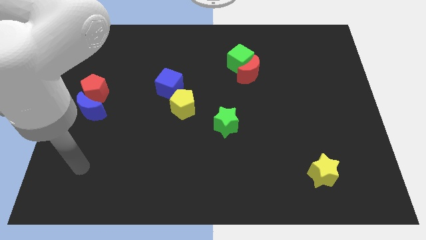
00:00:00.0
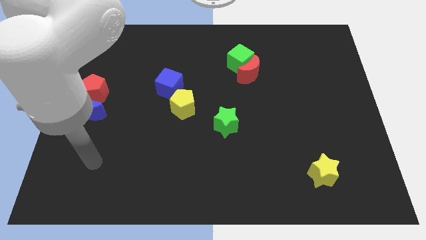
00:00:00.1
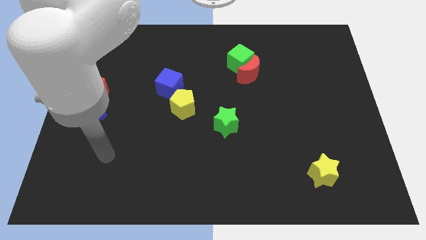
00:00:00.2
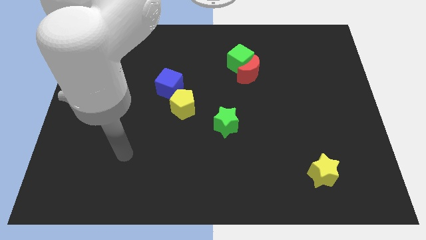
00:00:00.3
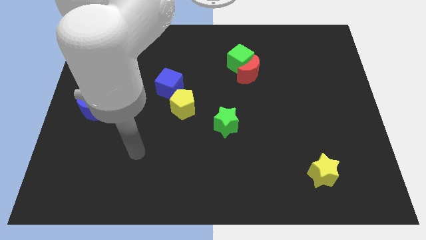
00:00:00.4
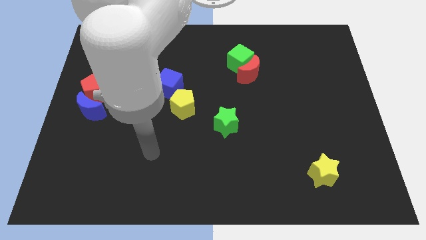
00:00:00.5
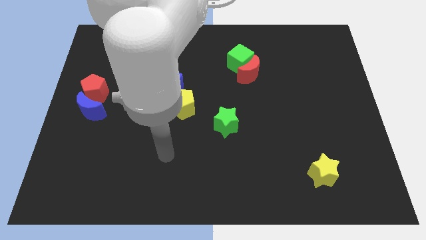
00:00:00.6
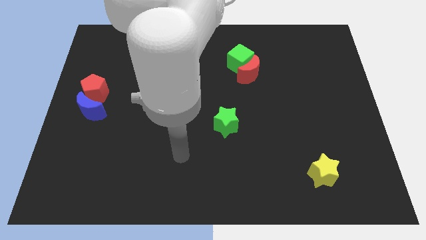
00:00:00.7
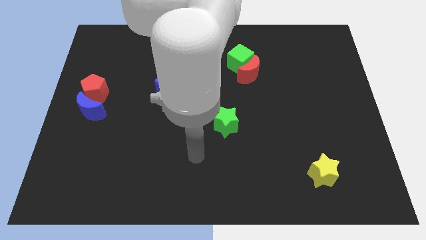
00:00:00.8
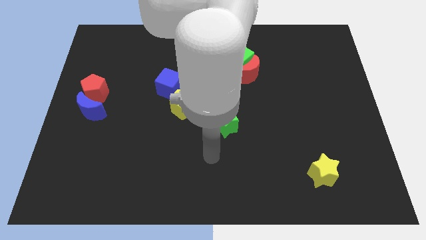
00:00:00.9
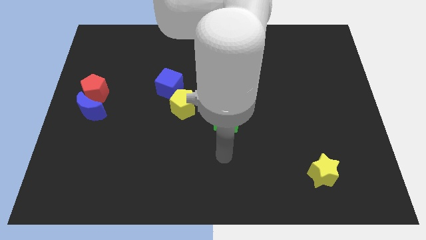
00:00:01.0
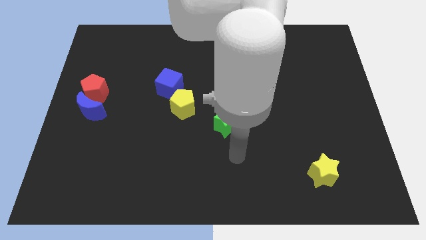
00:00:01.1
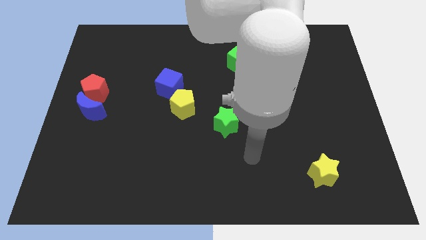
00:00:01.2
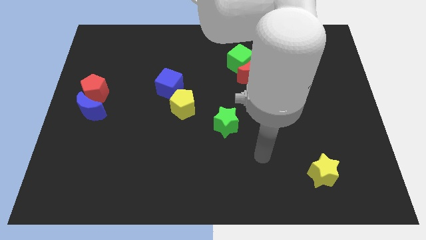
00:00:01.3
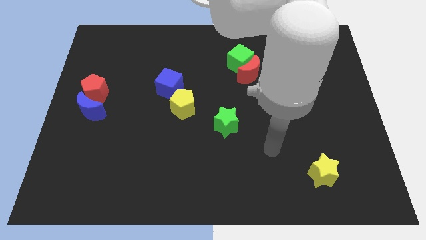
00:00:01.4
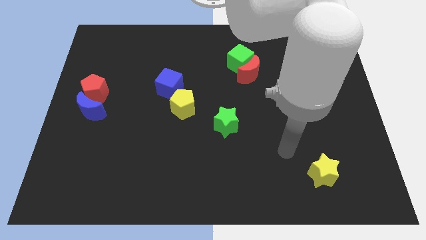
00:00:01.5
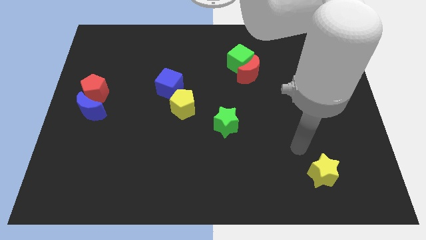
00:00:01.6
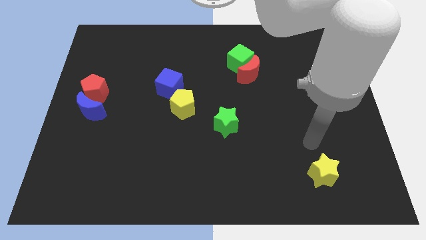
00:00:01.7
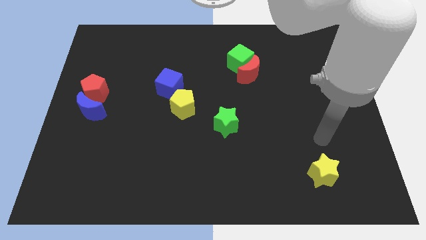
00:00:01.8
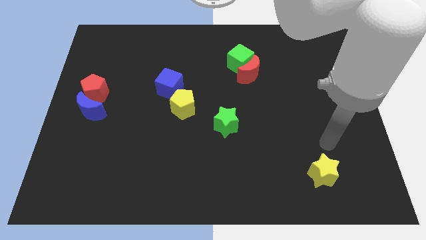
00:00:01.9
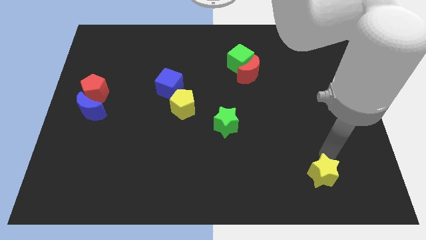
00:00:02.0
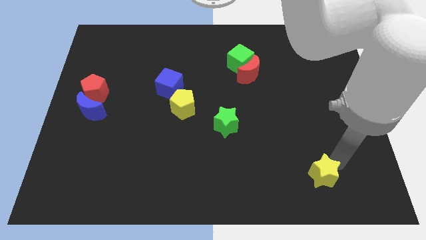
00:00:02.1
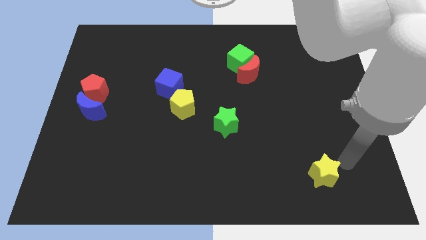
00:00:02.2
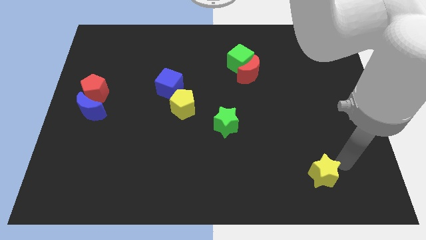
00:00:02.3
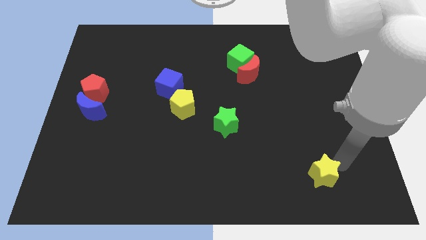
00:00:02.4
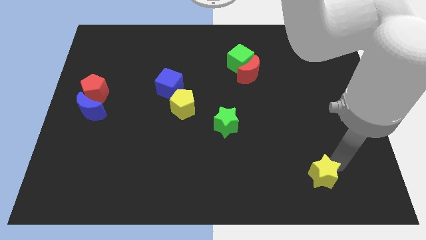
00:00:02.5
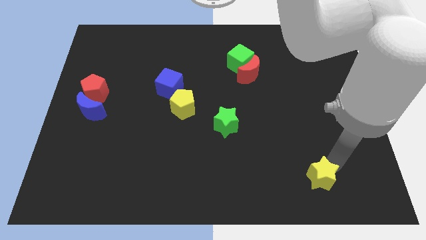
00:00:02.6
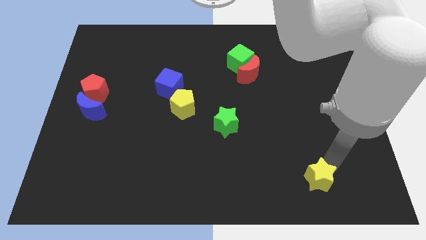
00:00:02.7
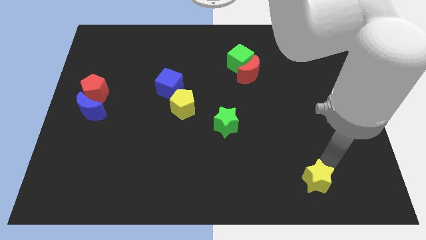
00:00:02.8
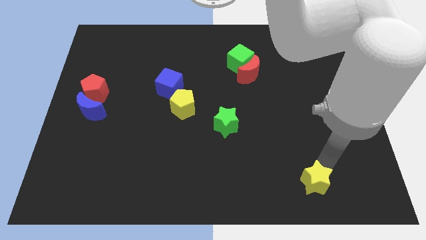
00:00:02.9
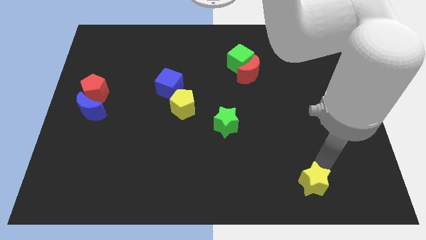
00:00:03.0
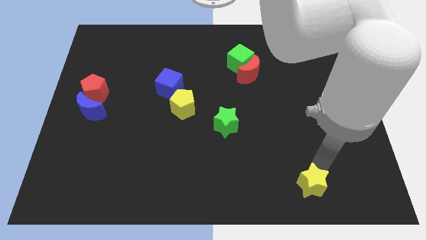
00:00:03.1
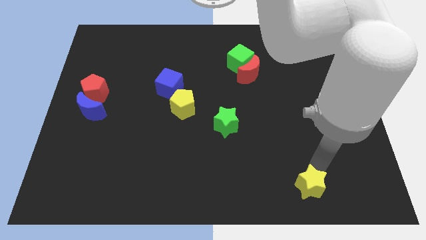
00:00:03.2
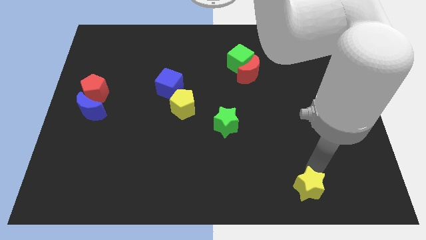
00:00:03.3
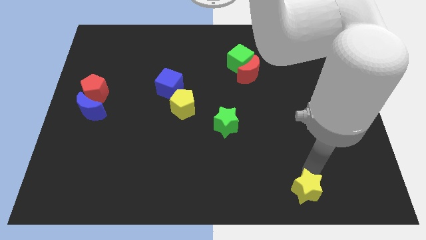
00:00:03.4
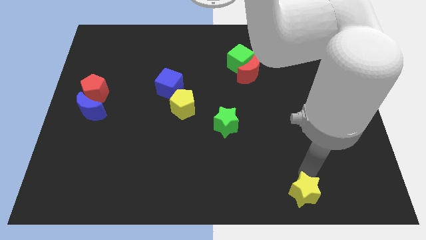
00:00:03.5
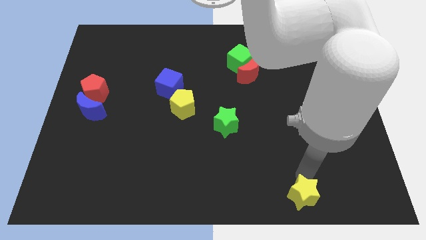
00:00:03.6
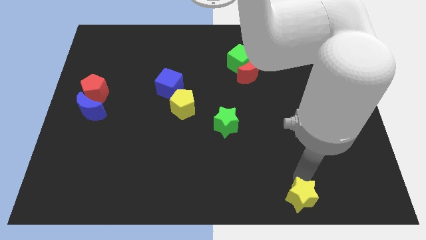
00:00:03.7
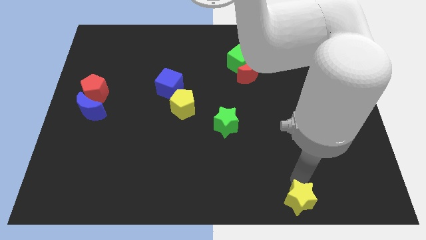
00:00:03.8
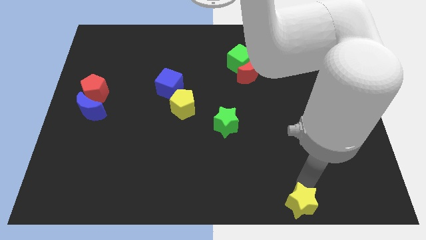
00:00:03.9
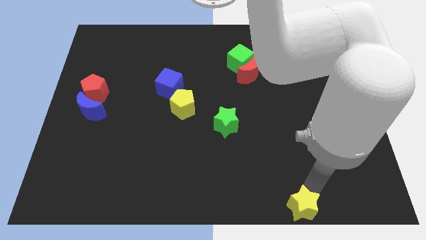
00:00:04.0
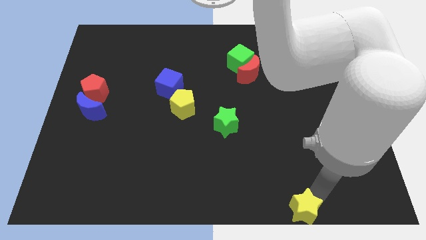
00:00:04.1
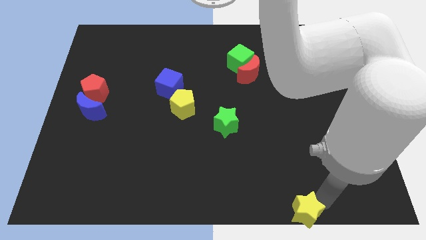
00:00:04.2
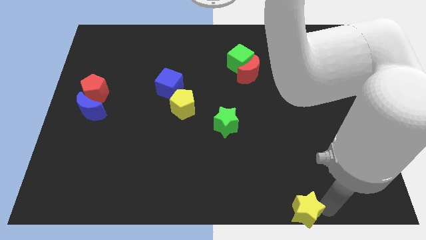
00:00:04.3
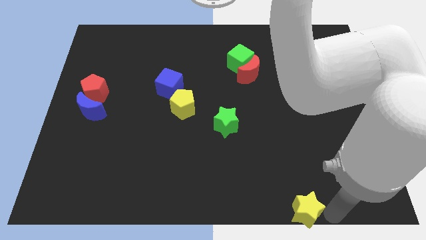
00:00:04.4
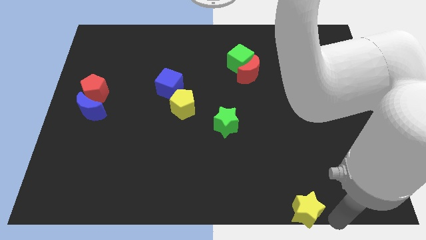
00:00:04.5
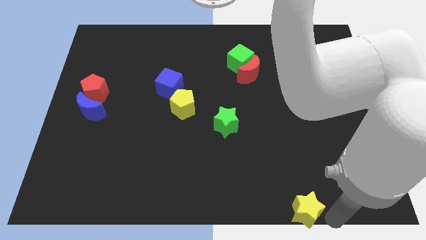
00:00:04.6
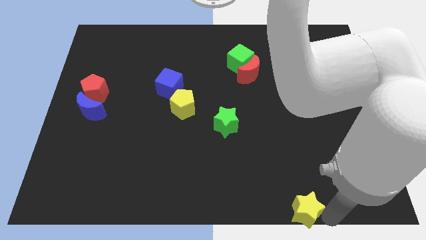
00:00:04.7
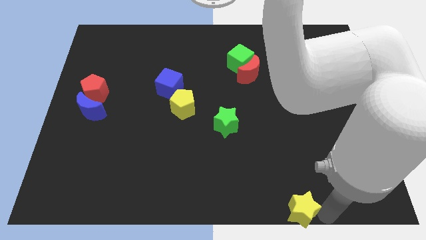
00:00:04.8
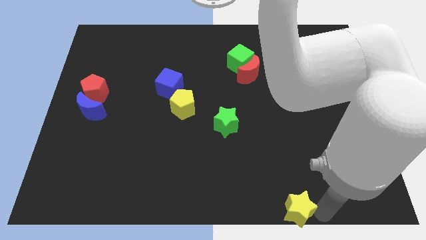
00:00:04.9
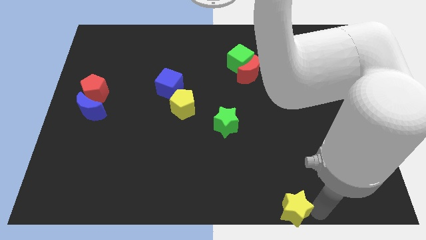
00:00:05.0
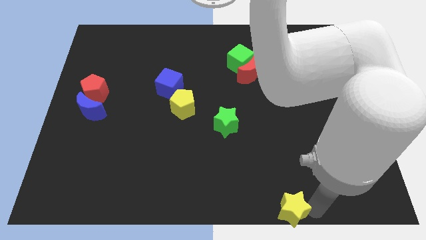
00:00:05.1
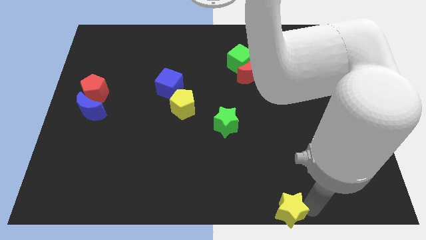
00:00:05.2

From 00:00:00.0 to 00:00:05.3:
push the yellow star to the bottom side
